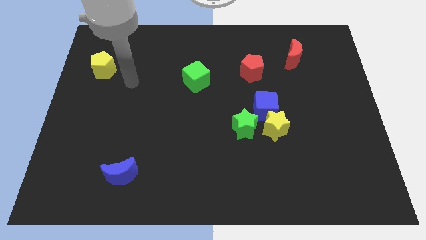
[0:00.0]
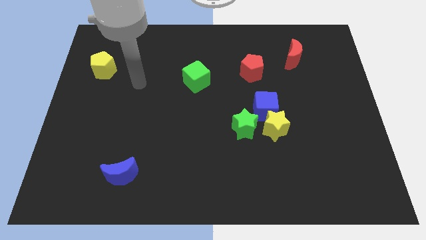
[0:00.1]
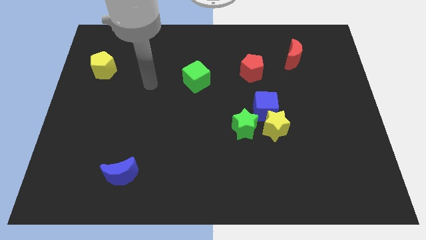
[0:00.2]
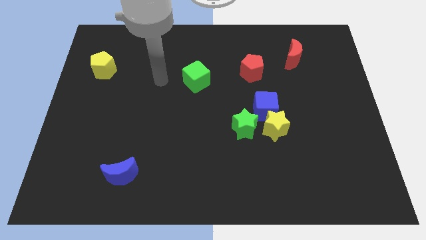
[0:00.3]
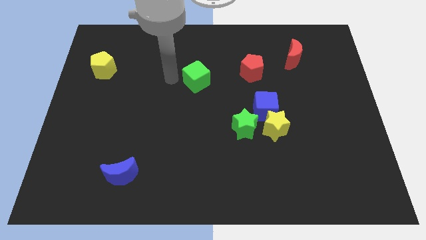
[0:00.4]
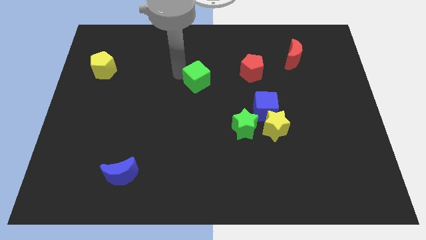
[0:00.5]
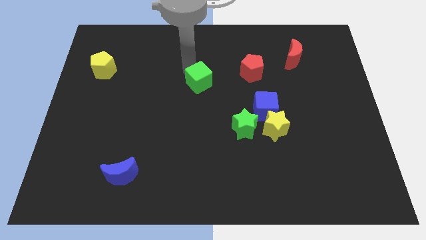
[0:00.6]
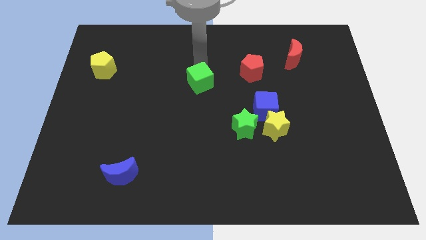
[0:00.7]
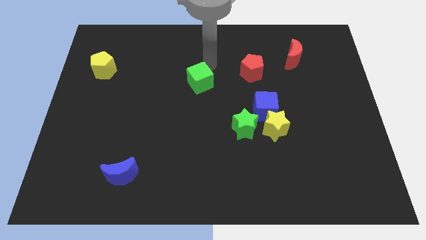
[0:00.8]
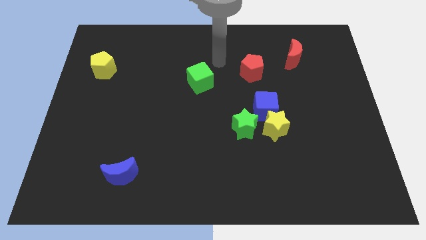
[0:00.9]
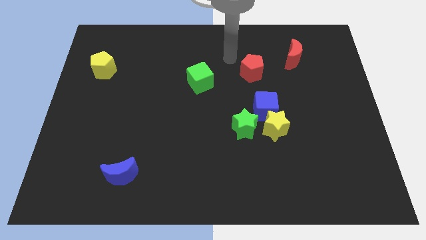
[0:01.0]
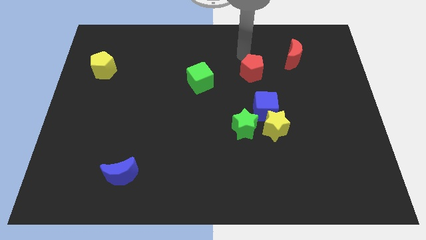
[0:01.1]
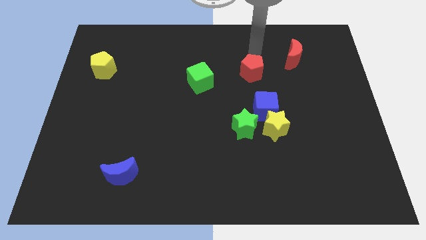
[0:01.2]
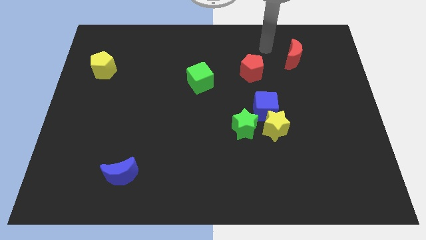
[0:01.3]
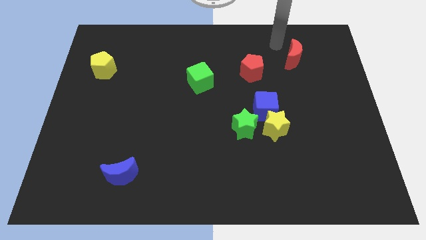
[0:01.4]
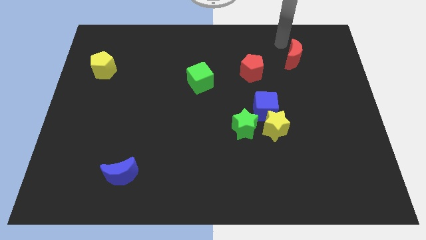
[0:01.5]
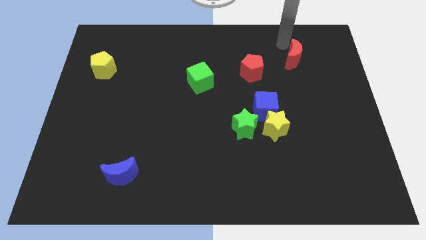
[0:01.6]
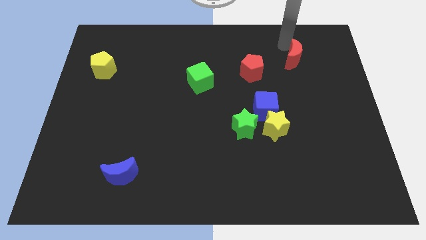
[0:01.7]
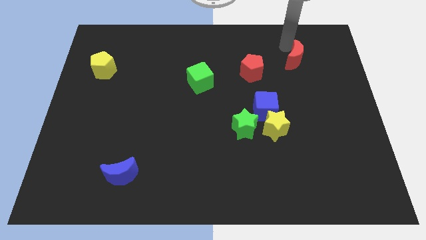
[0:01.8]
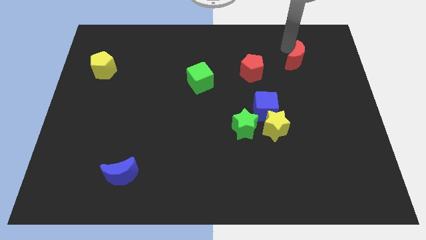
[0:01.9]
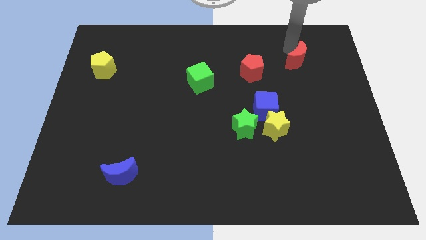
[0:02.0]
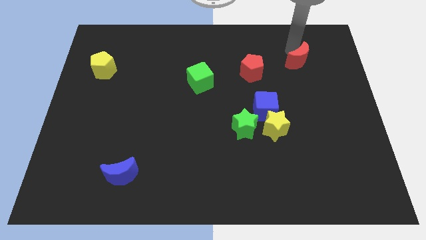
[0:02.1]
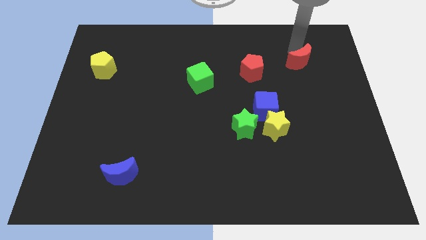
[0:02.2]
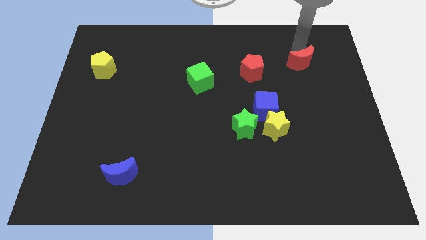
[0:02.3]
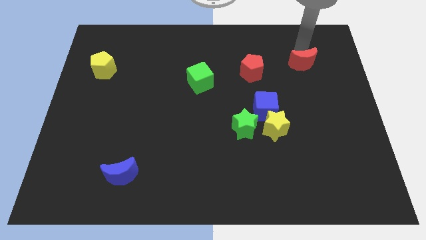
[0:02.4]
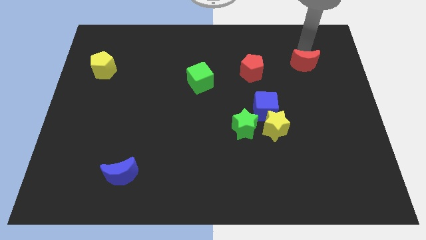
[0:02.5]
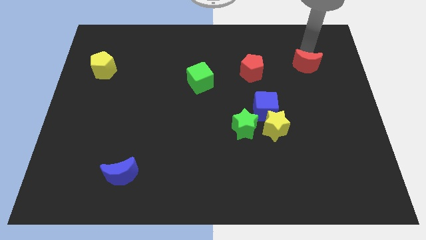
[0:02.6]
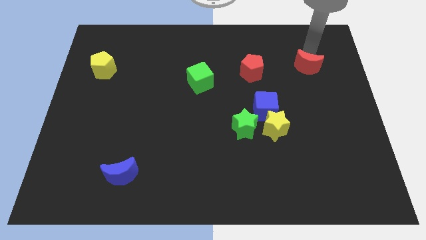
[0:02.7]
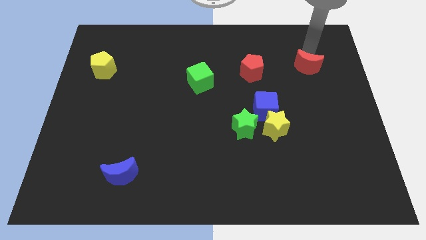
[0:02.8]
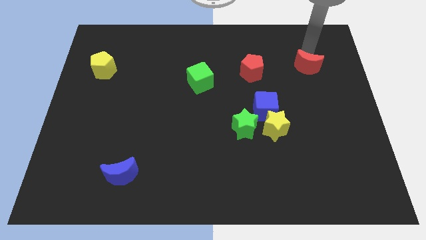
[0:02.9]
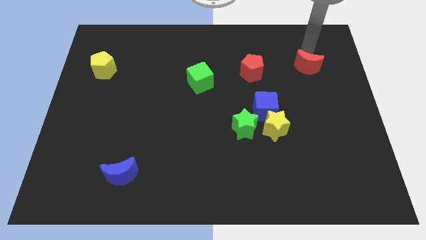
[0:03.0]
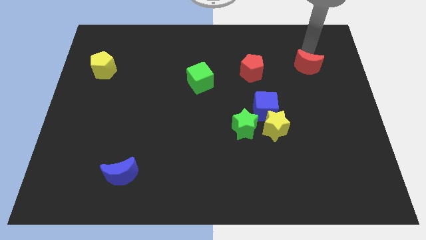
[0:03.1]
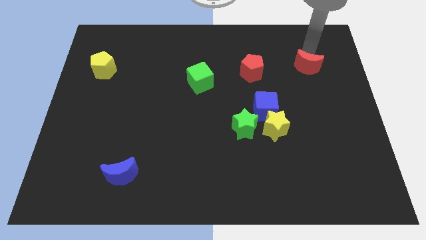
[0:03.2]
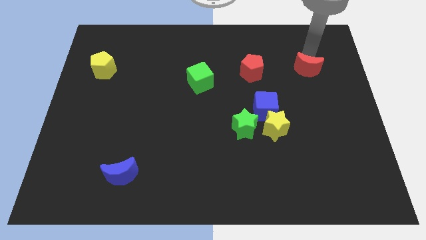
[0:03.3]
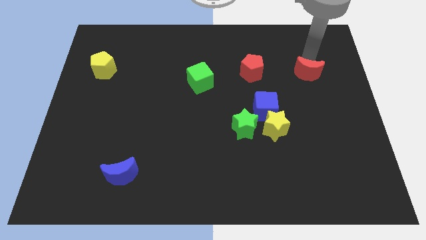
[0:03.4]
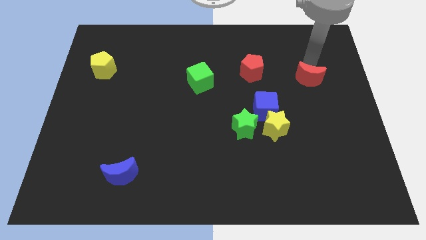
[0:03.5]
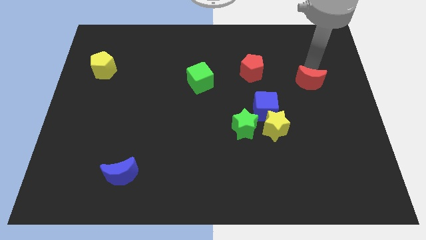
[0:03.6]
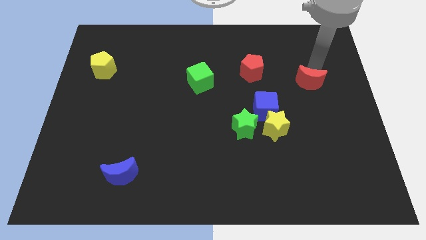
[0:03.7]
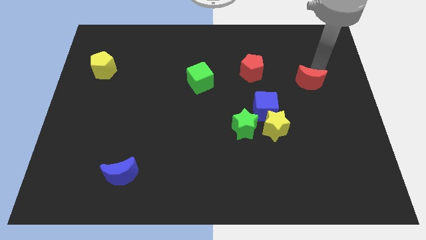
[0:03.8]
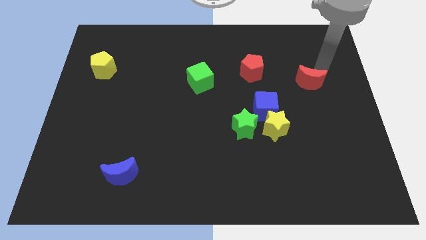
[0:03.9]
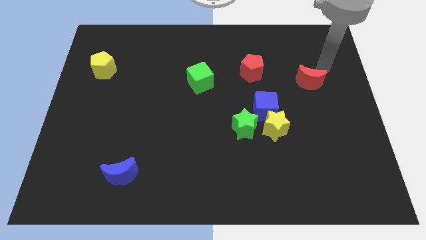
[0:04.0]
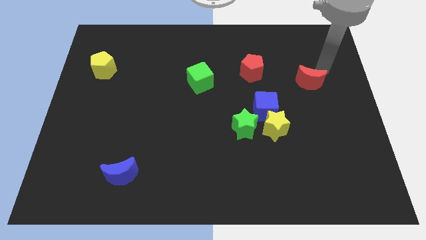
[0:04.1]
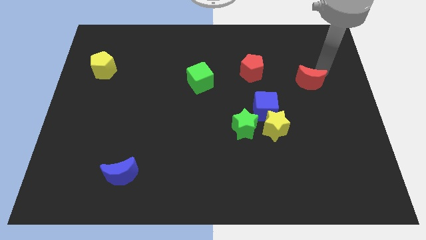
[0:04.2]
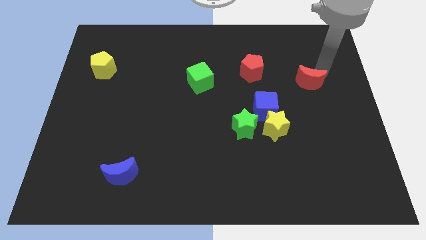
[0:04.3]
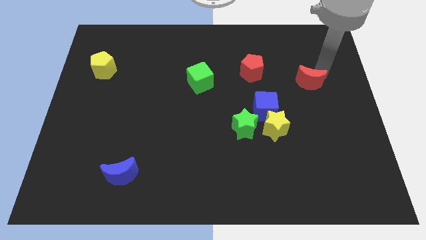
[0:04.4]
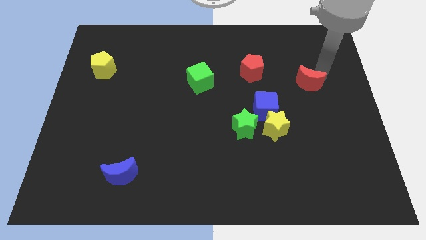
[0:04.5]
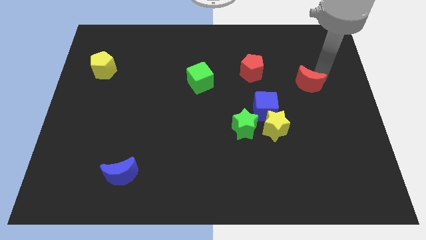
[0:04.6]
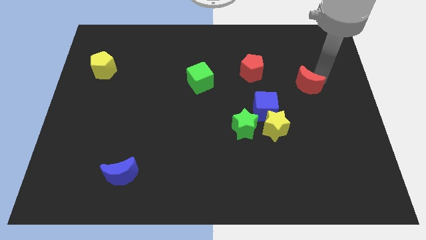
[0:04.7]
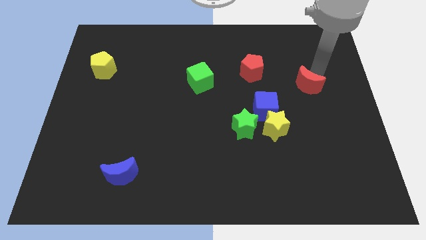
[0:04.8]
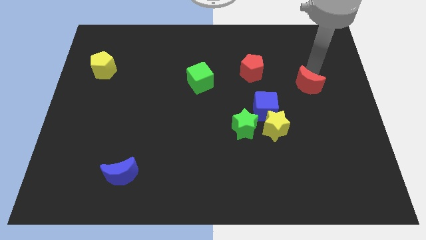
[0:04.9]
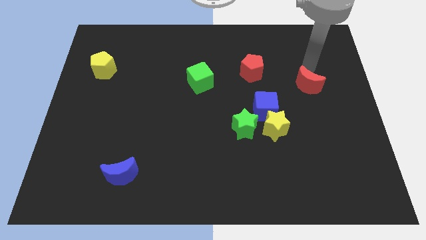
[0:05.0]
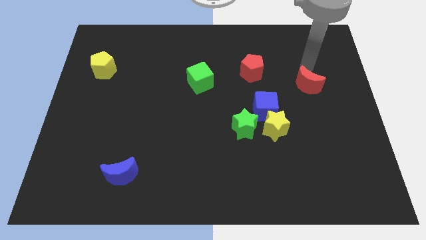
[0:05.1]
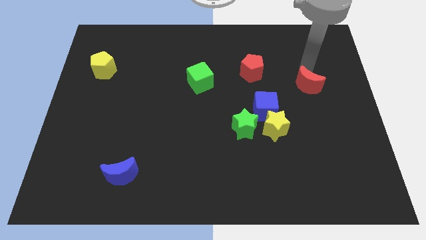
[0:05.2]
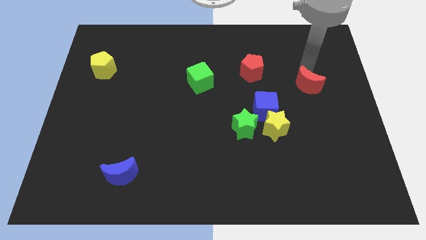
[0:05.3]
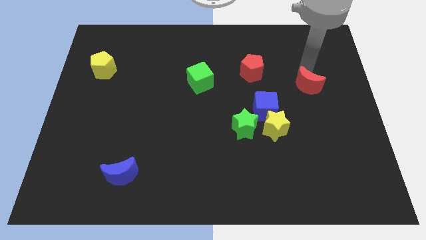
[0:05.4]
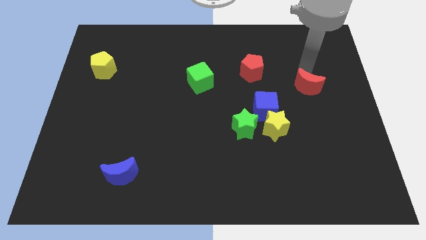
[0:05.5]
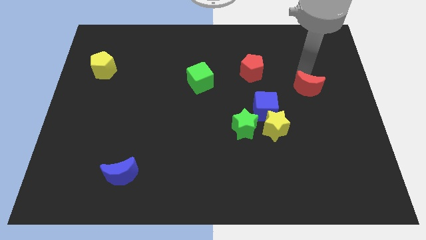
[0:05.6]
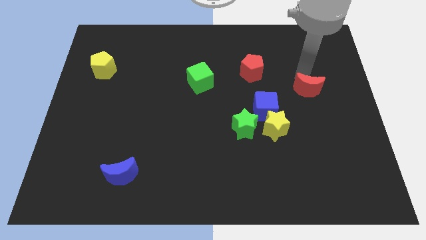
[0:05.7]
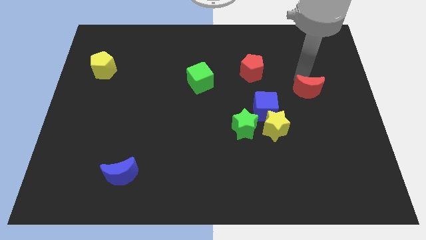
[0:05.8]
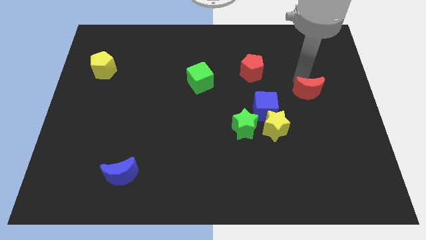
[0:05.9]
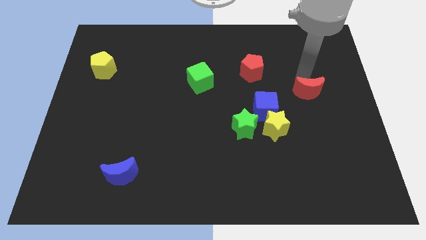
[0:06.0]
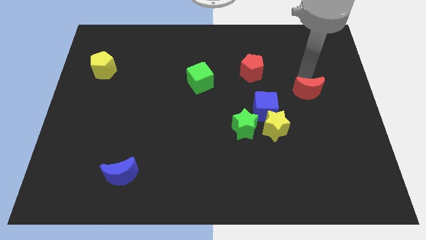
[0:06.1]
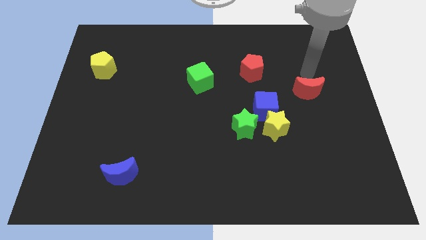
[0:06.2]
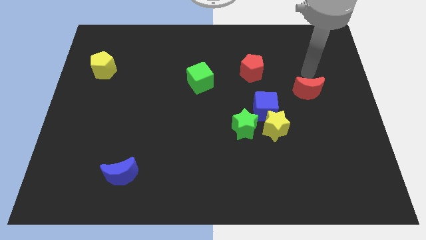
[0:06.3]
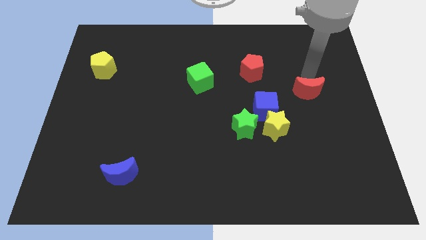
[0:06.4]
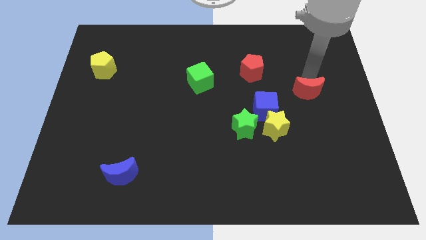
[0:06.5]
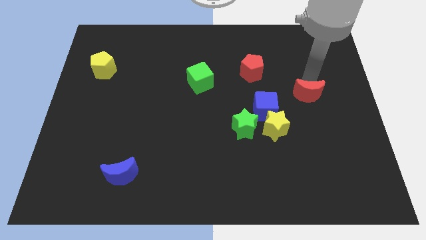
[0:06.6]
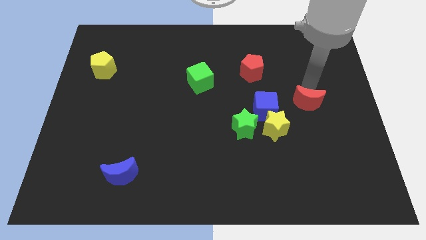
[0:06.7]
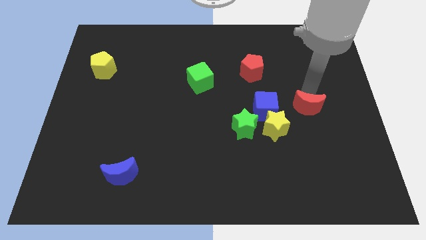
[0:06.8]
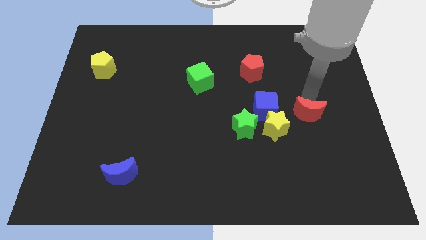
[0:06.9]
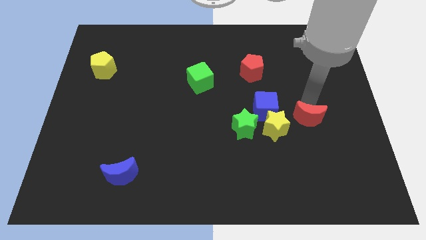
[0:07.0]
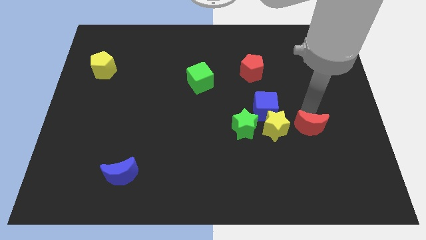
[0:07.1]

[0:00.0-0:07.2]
slide the red moon downwards

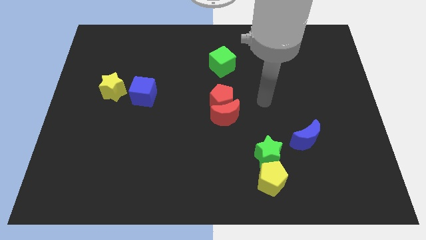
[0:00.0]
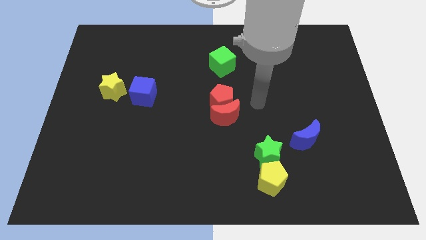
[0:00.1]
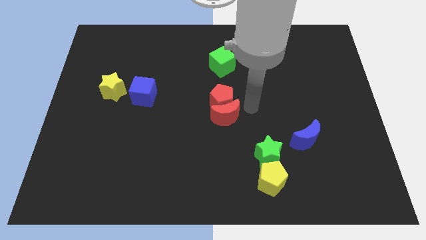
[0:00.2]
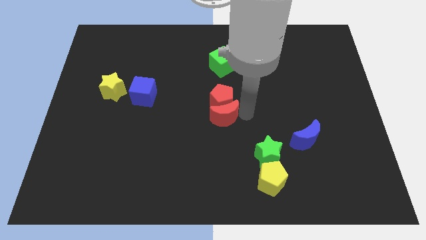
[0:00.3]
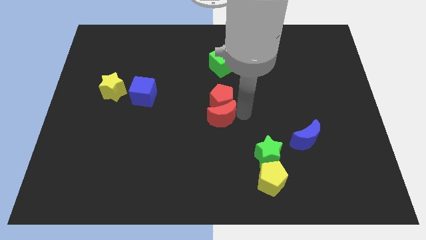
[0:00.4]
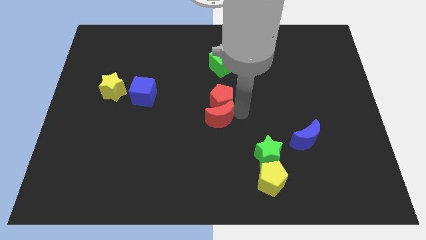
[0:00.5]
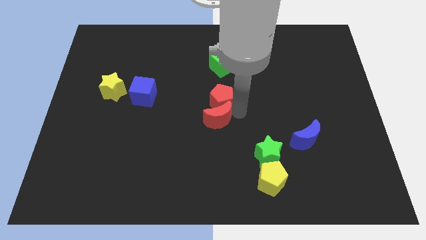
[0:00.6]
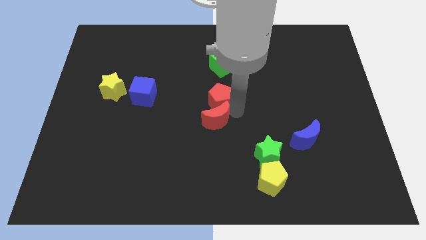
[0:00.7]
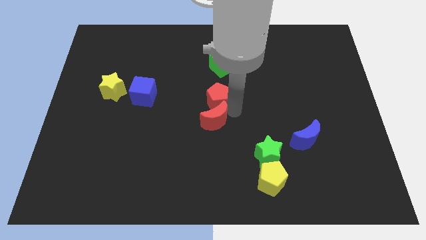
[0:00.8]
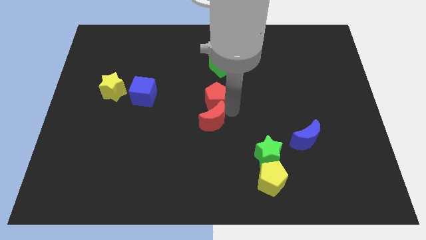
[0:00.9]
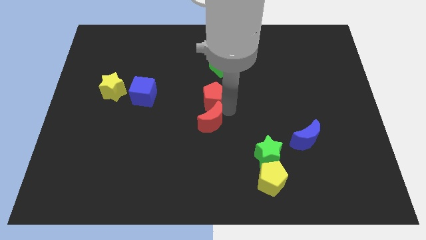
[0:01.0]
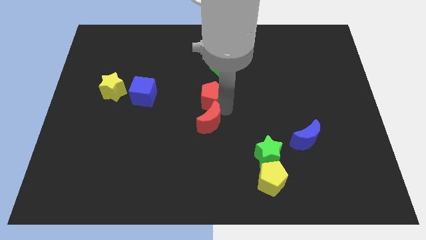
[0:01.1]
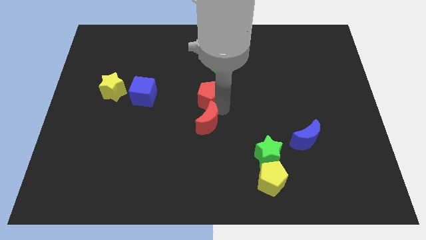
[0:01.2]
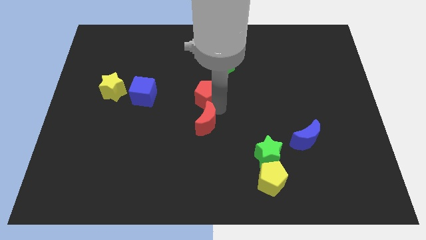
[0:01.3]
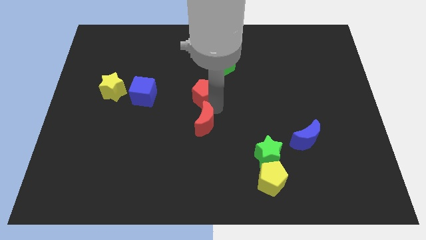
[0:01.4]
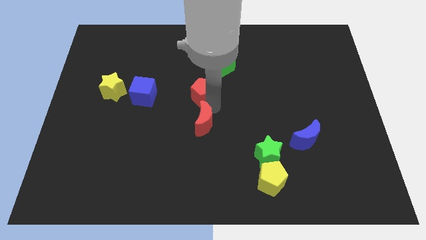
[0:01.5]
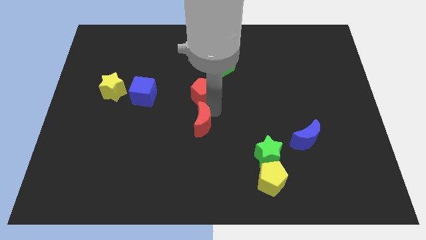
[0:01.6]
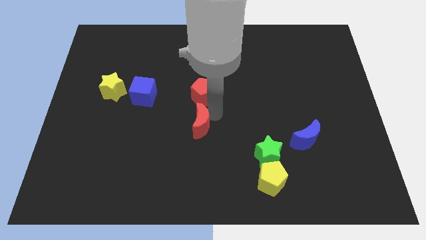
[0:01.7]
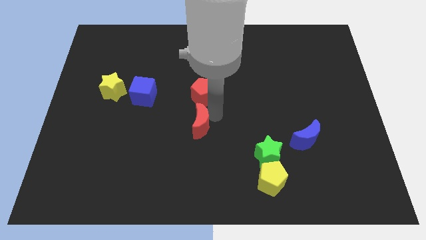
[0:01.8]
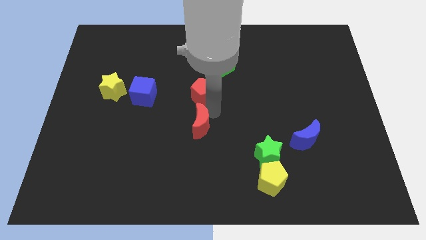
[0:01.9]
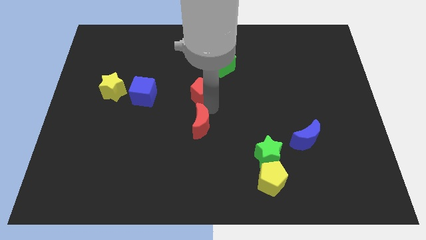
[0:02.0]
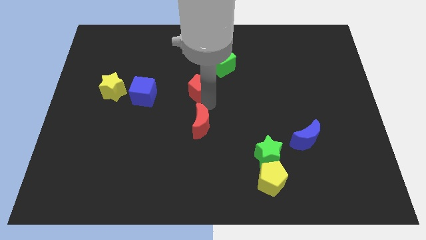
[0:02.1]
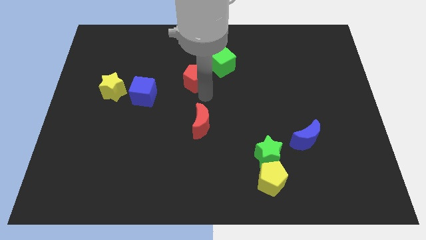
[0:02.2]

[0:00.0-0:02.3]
move the red pentagon somewhat upwards and then left
